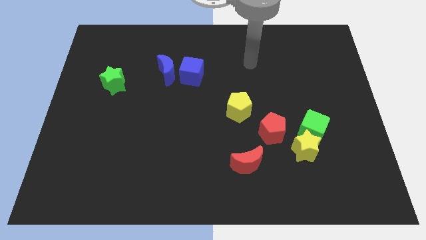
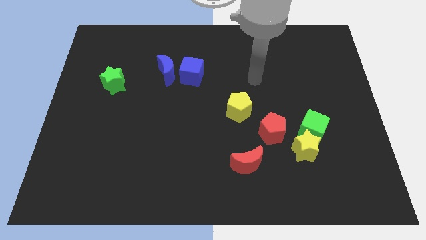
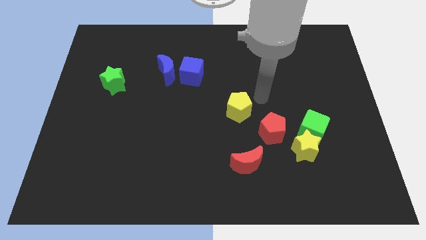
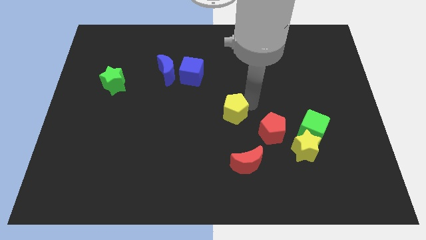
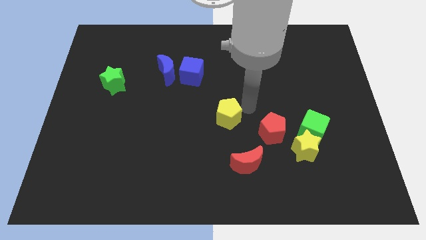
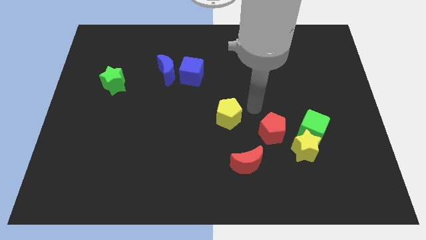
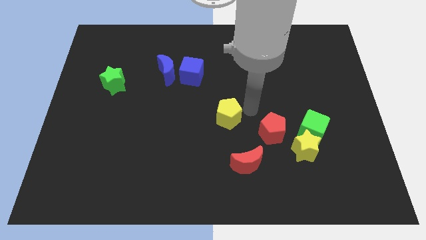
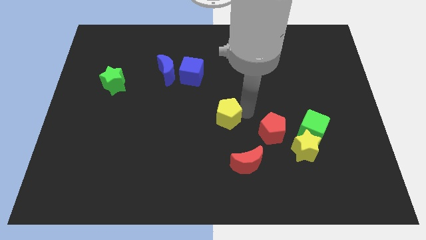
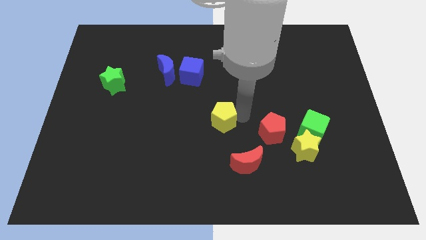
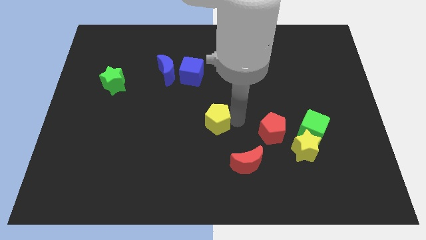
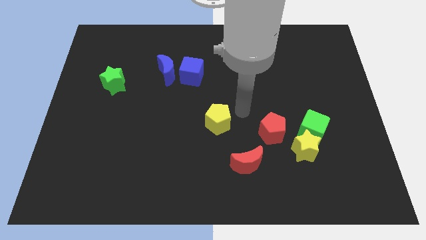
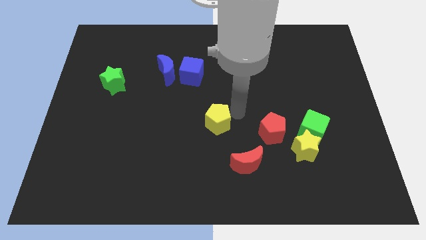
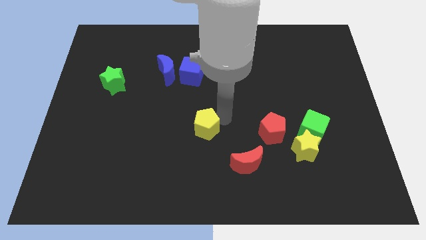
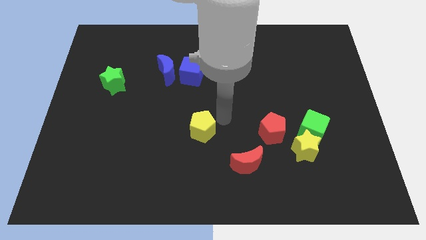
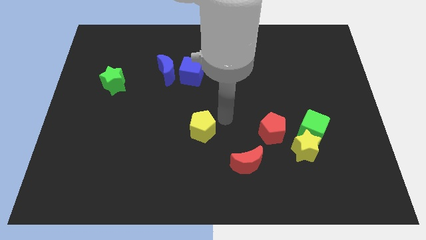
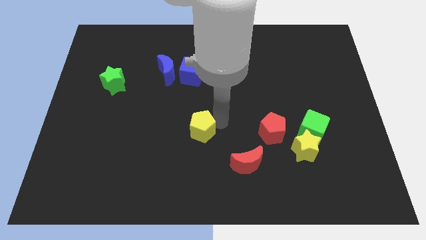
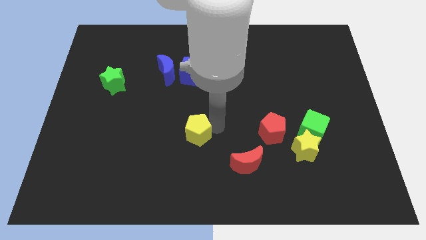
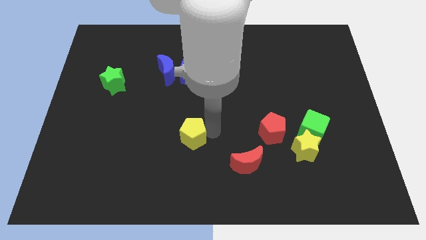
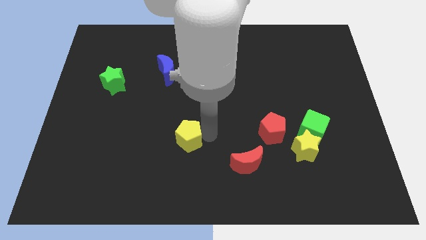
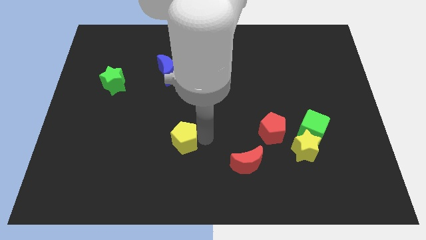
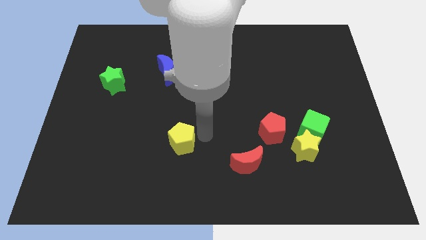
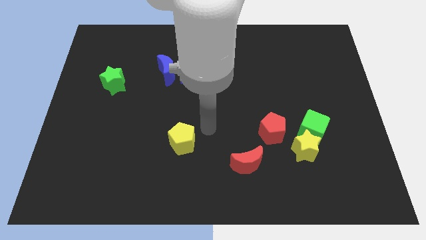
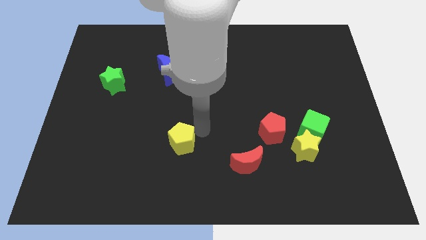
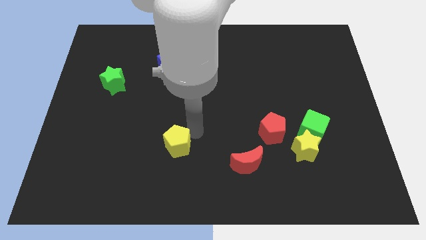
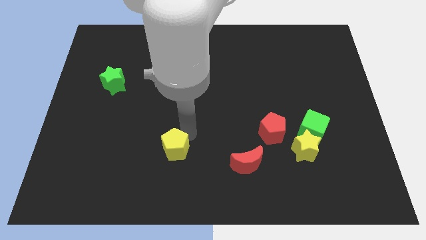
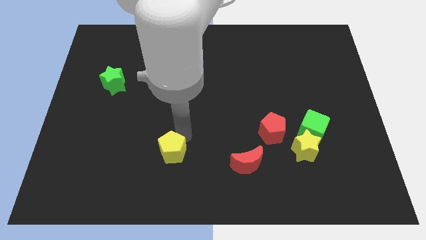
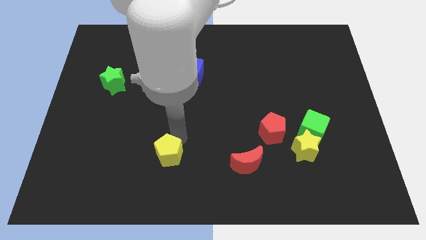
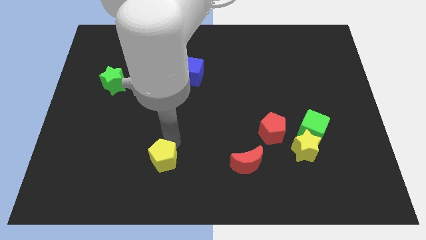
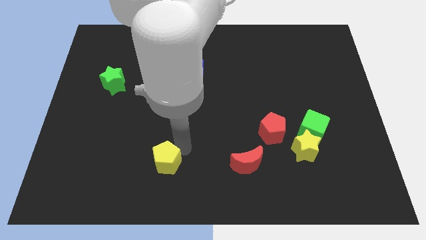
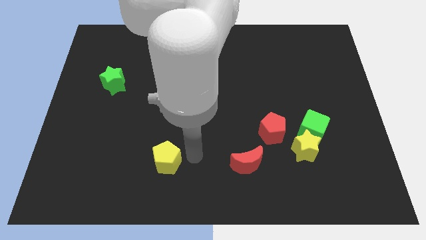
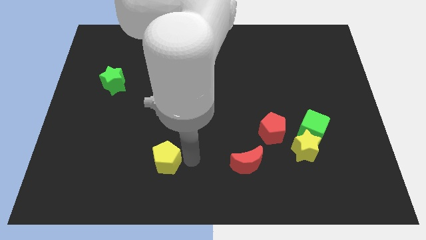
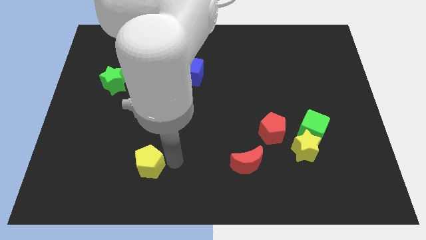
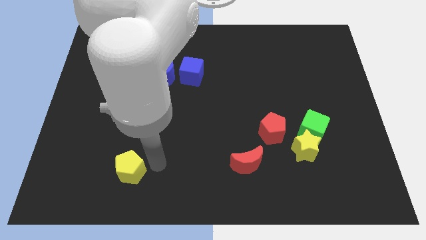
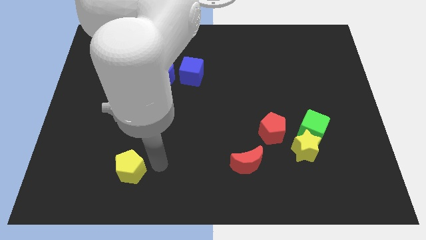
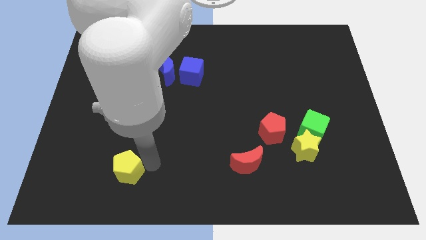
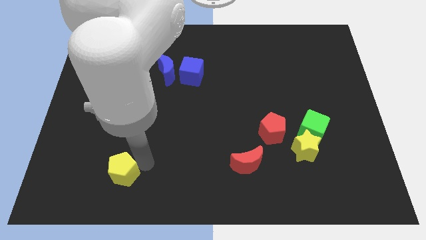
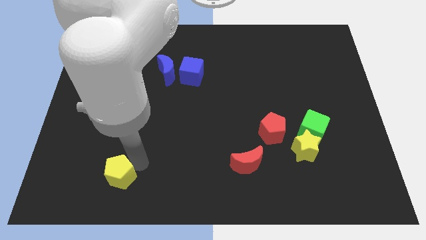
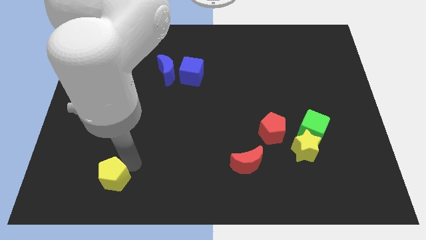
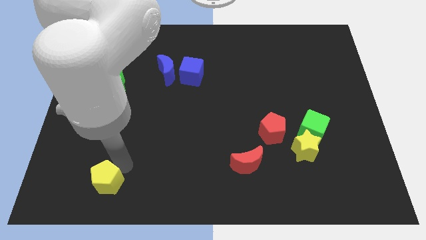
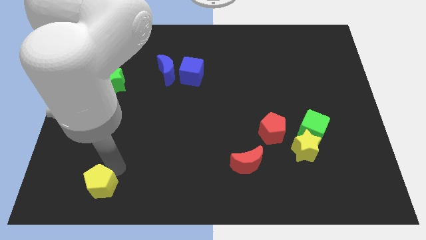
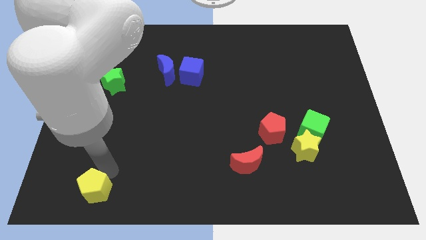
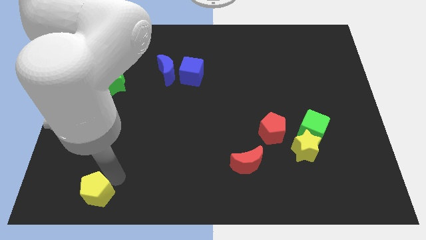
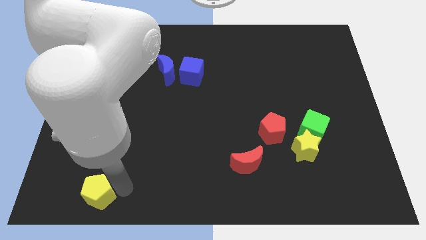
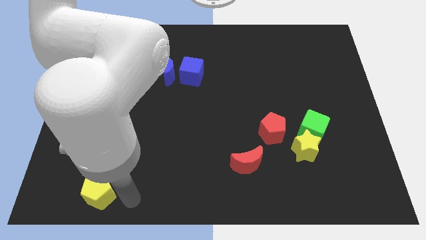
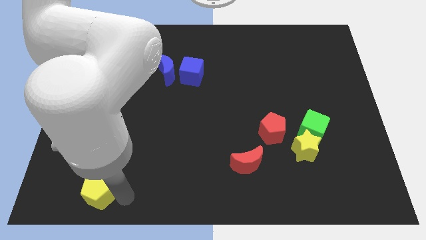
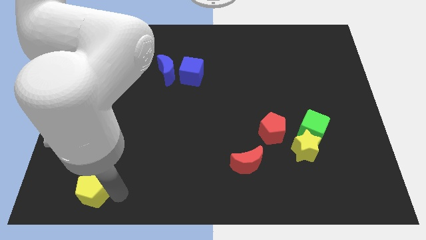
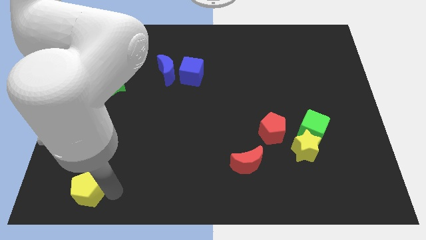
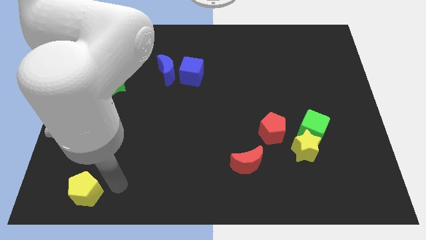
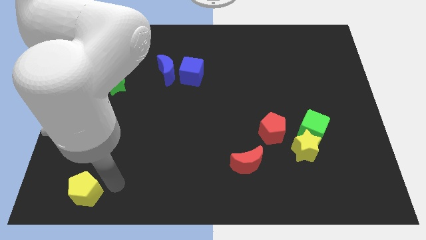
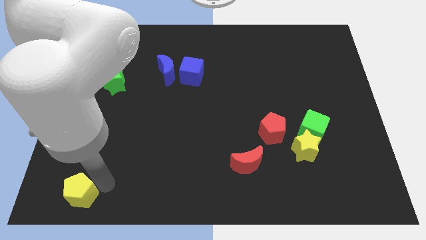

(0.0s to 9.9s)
put the yellow pentagon to the lower left corner

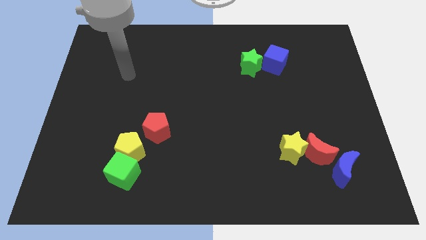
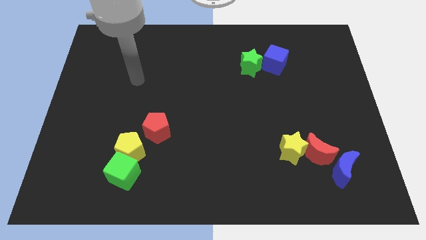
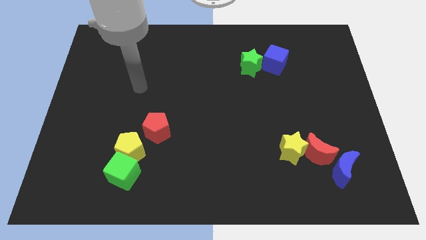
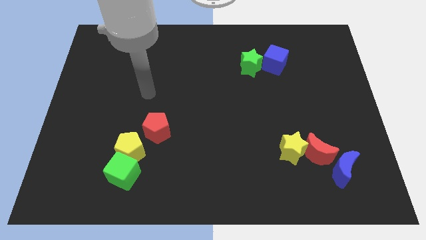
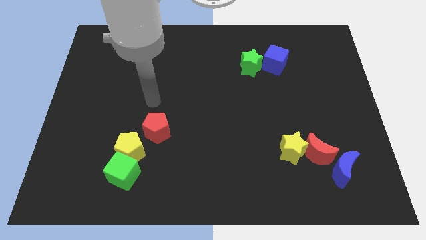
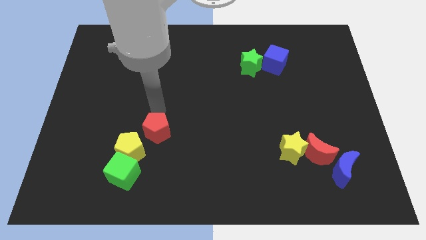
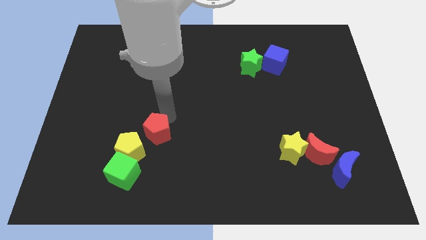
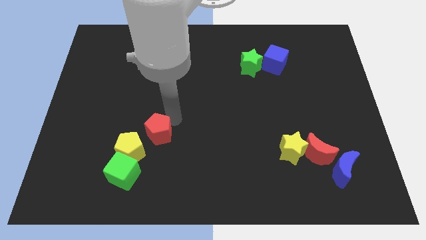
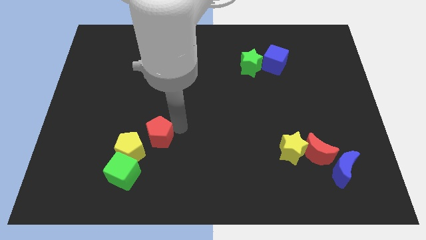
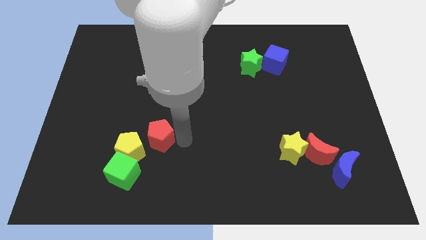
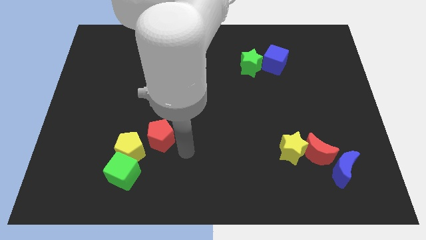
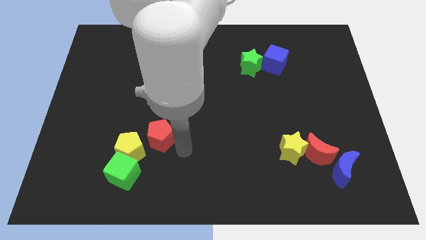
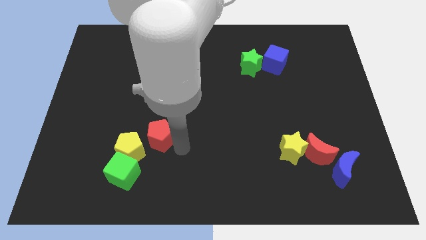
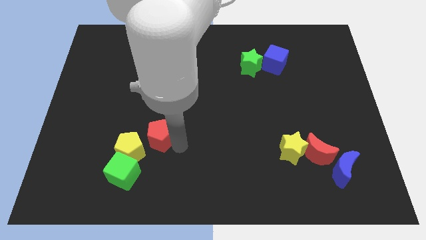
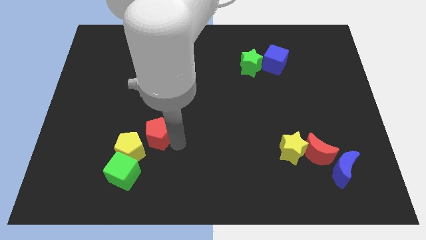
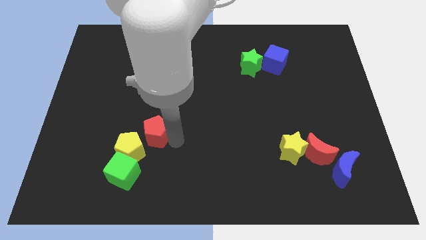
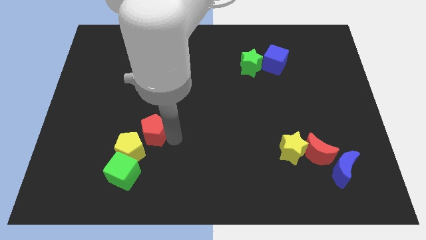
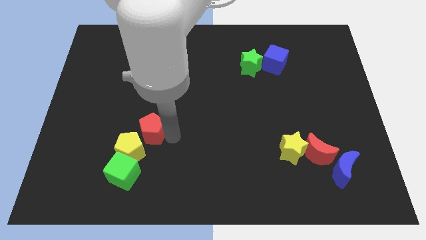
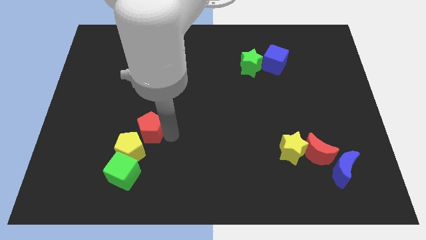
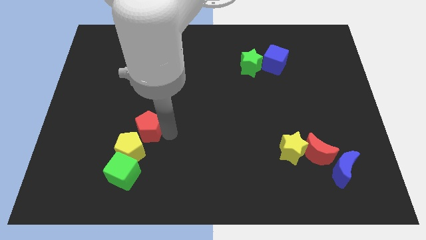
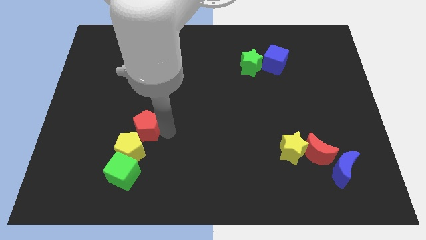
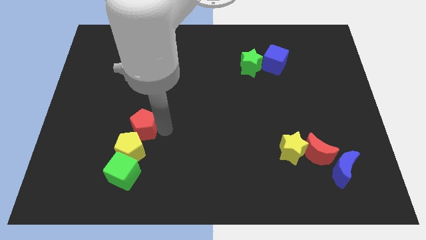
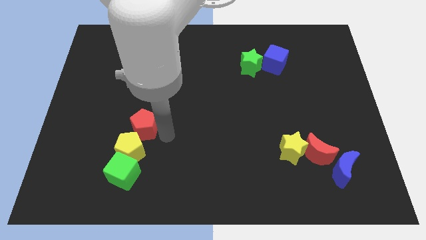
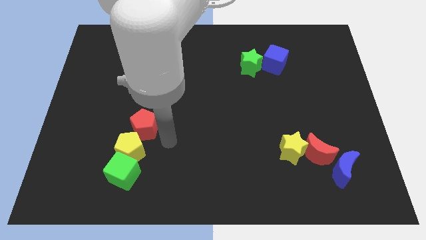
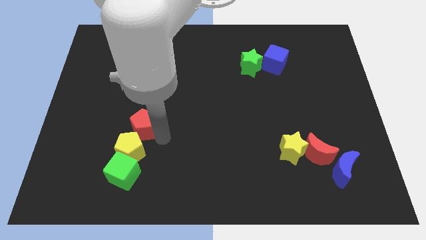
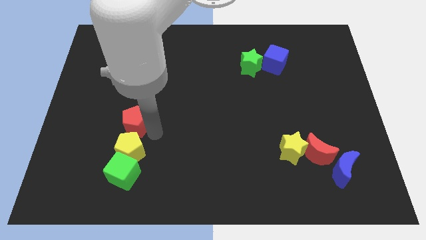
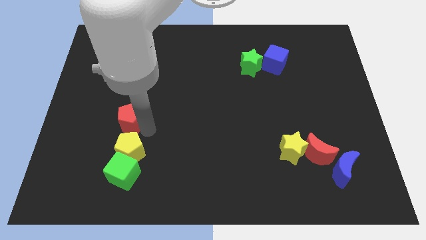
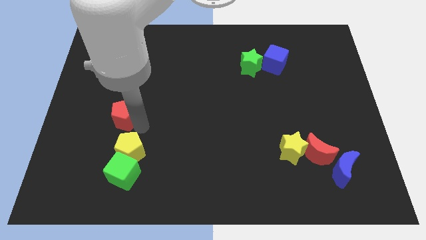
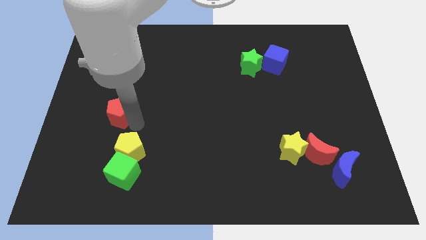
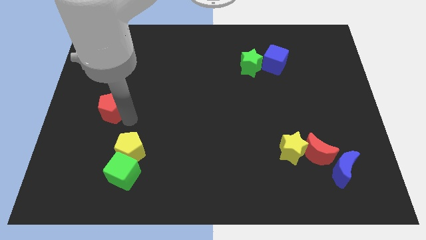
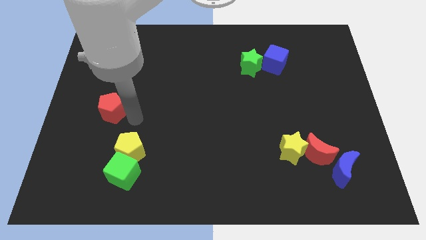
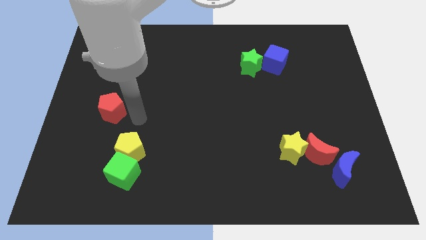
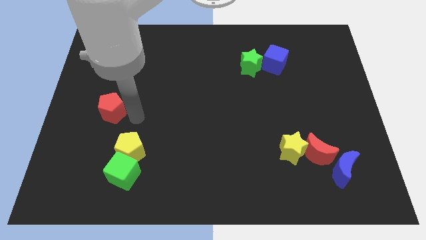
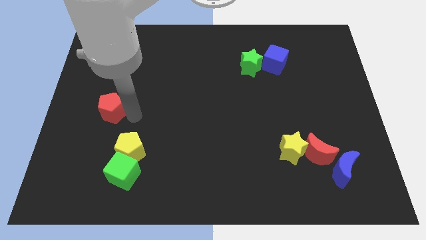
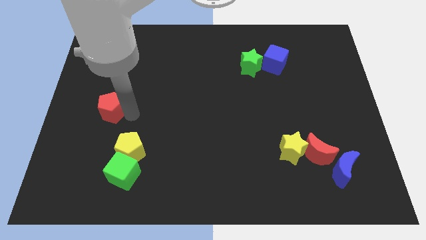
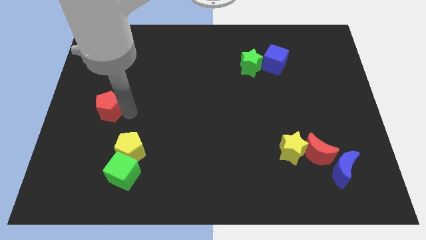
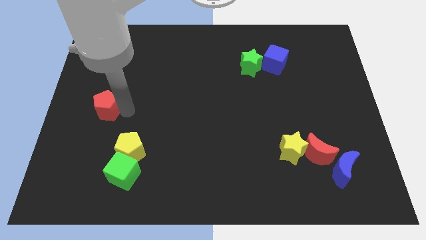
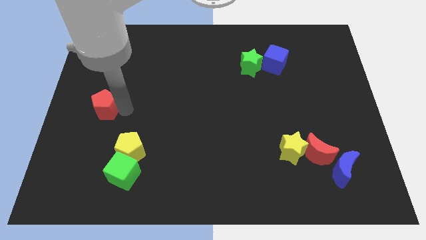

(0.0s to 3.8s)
put the red pentagon to the center left
